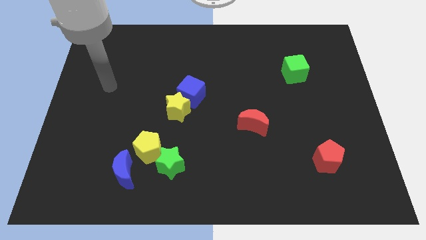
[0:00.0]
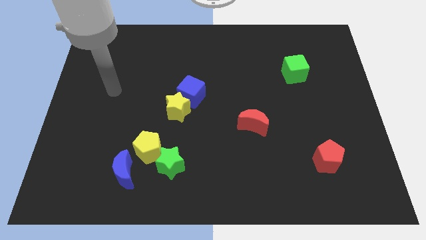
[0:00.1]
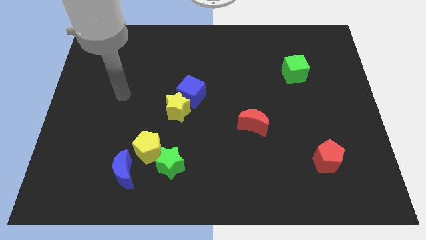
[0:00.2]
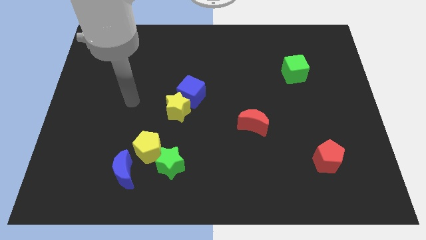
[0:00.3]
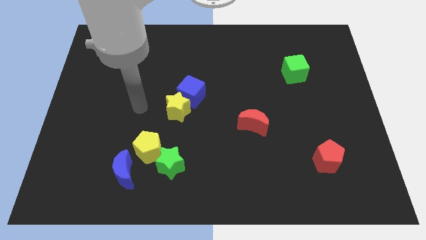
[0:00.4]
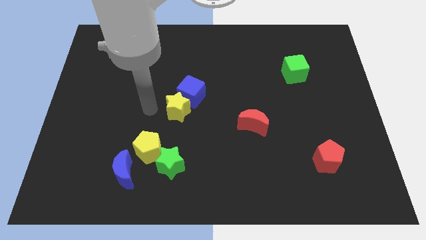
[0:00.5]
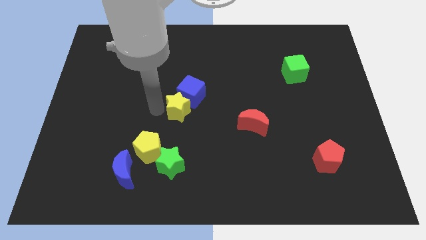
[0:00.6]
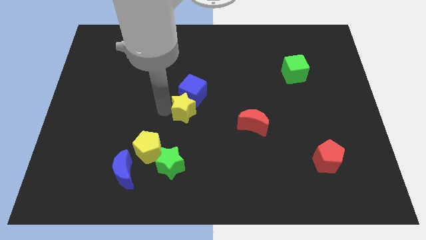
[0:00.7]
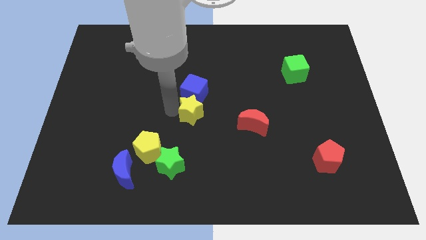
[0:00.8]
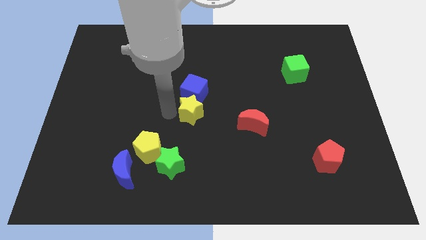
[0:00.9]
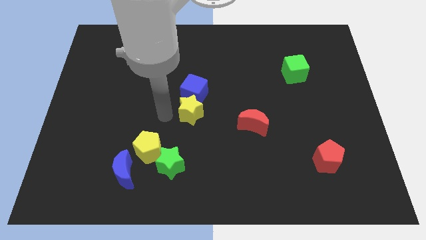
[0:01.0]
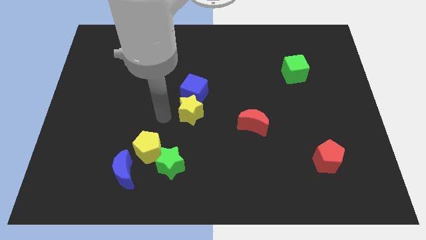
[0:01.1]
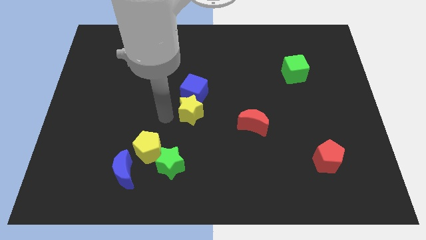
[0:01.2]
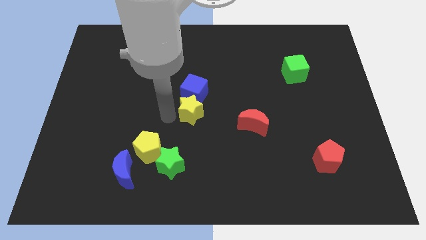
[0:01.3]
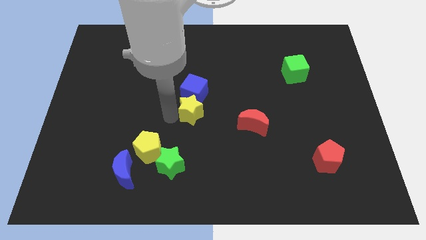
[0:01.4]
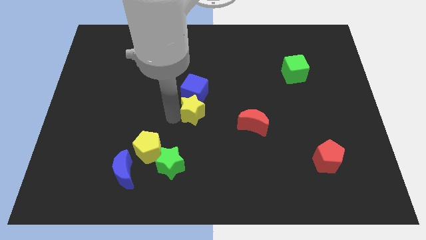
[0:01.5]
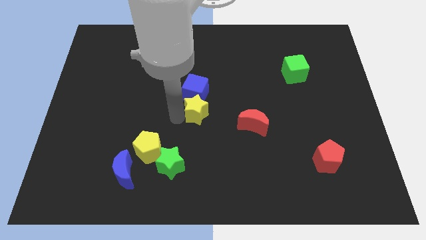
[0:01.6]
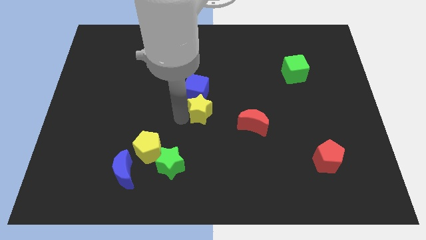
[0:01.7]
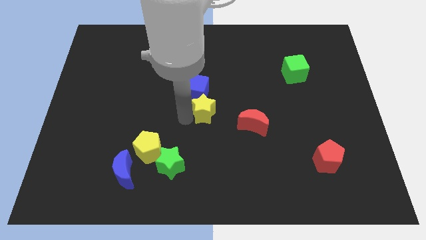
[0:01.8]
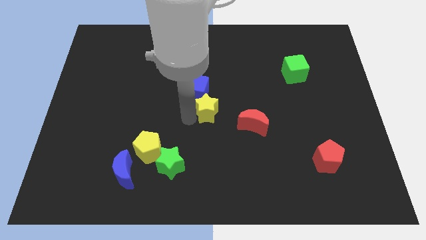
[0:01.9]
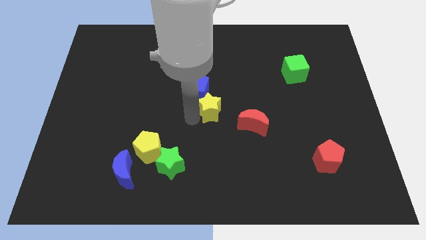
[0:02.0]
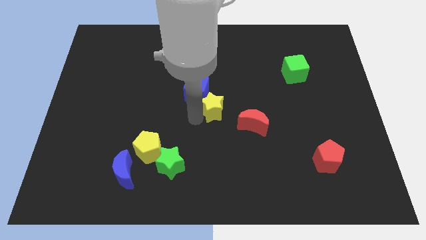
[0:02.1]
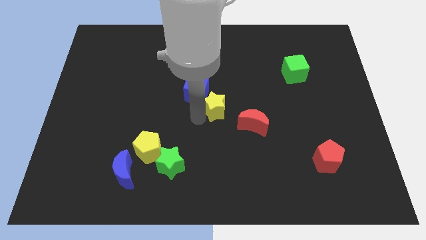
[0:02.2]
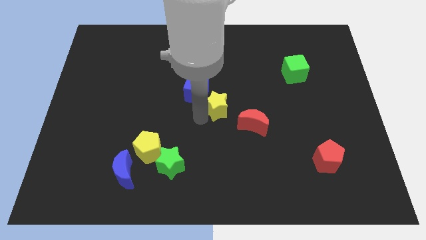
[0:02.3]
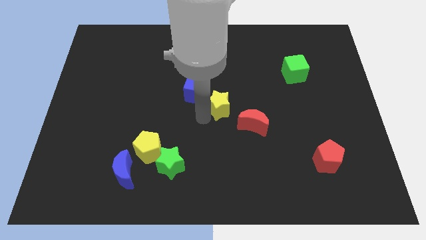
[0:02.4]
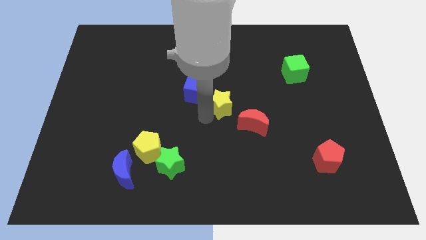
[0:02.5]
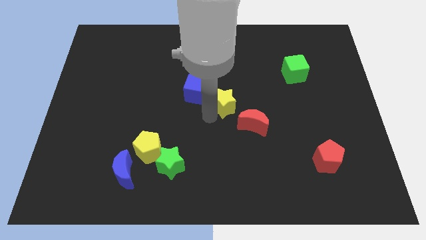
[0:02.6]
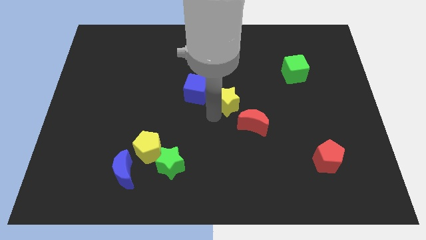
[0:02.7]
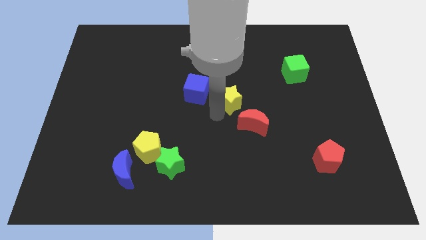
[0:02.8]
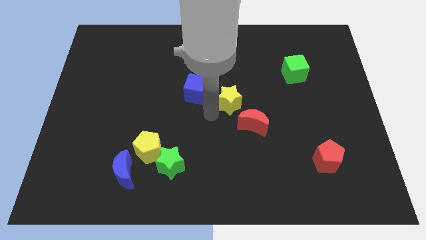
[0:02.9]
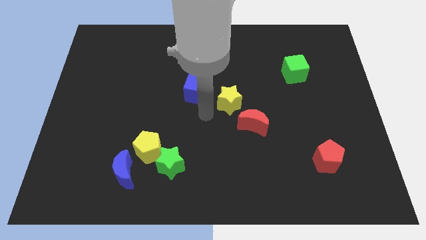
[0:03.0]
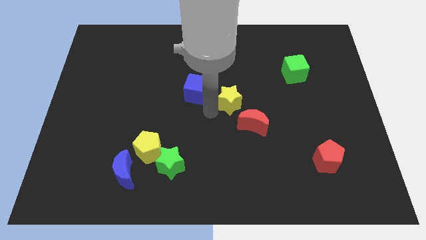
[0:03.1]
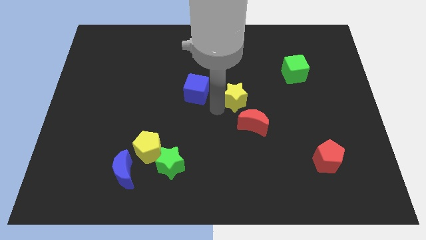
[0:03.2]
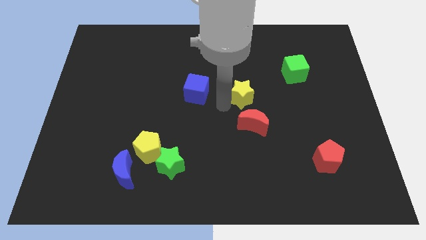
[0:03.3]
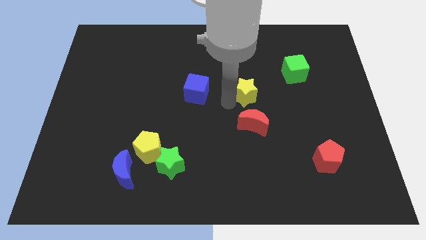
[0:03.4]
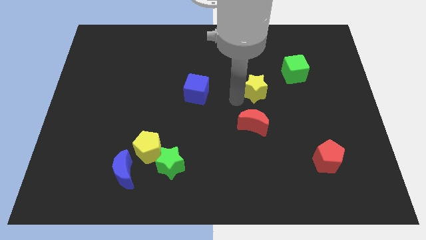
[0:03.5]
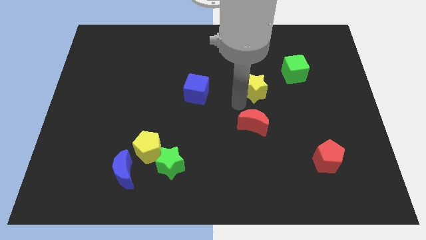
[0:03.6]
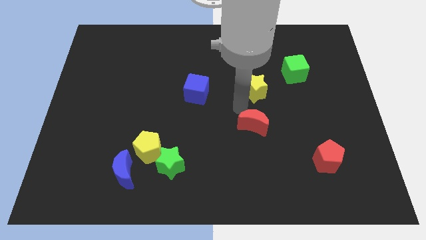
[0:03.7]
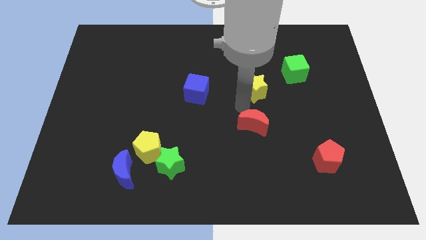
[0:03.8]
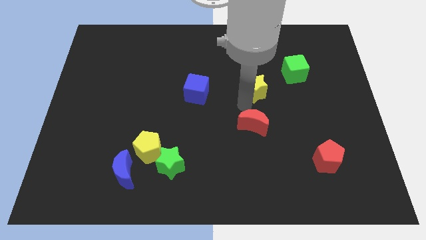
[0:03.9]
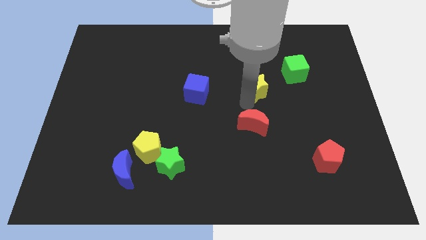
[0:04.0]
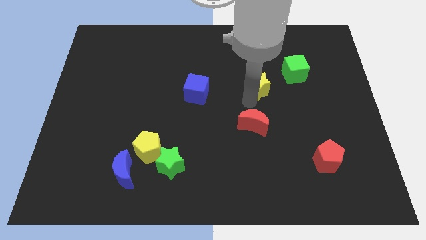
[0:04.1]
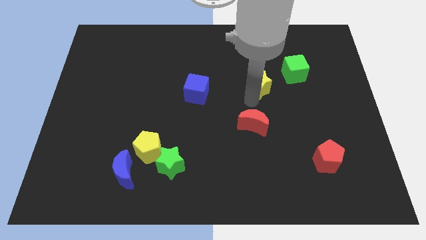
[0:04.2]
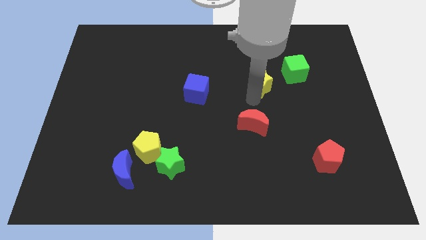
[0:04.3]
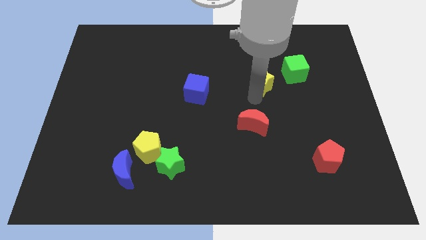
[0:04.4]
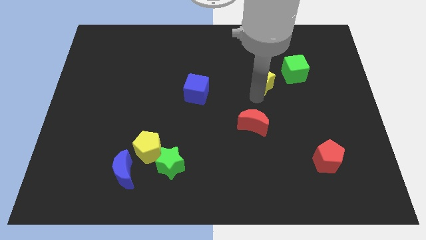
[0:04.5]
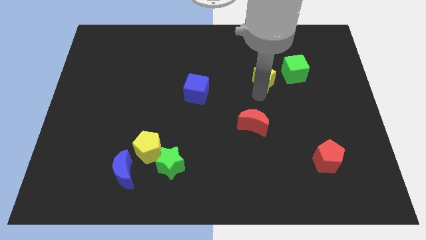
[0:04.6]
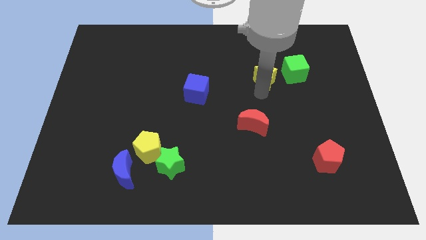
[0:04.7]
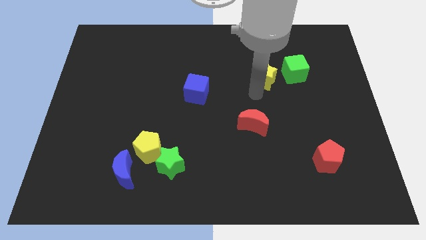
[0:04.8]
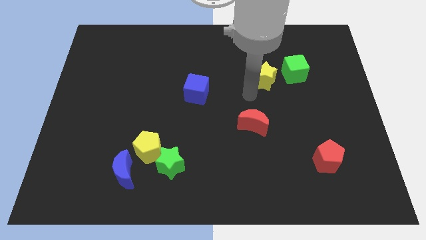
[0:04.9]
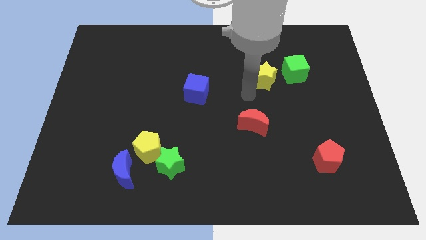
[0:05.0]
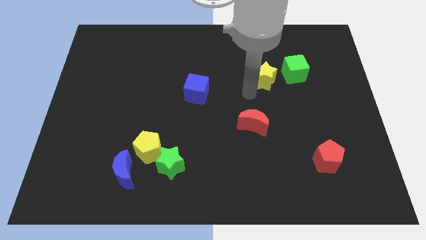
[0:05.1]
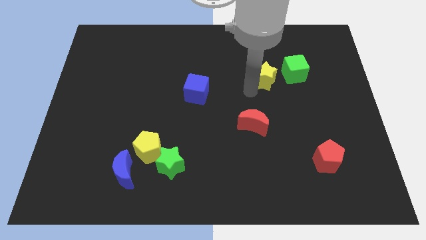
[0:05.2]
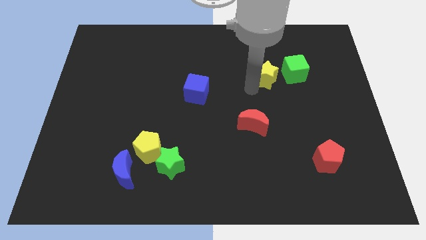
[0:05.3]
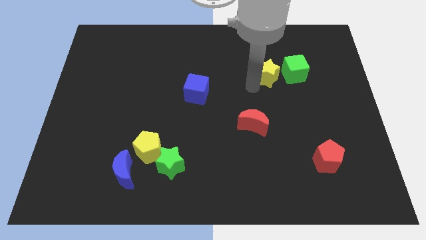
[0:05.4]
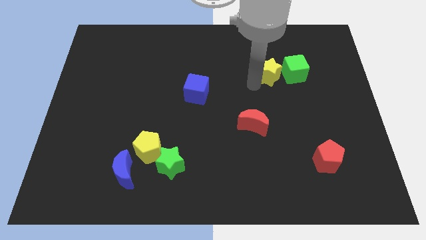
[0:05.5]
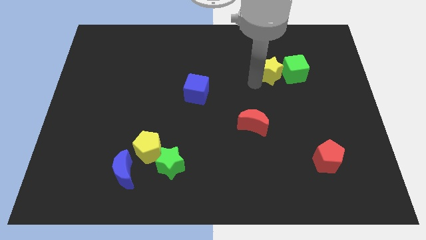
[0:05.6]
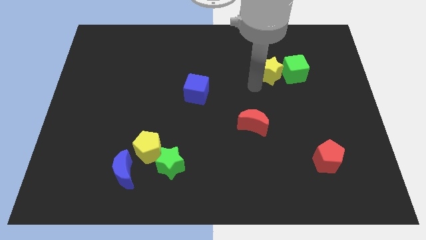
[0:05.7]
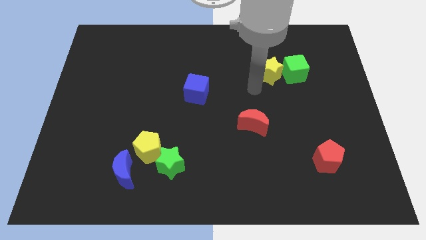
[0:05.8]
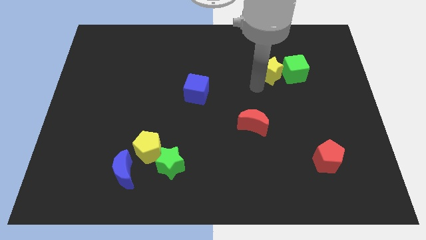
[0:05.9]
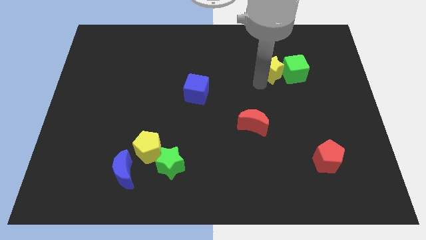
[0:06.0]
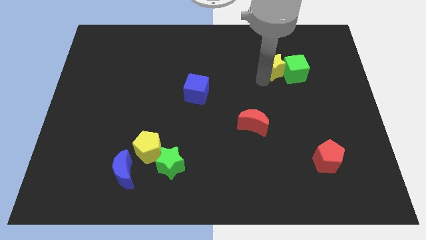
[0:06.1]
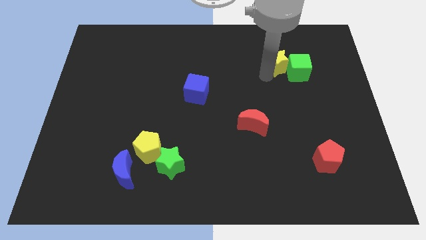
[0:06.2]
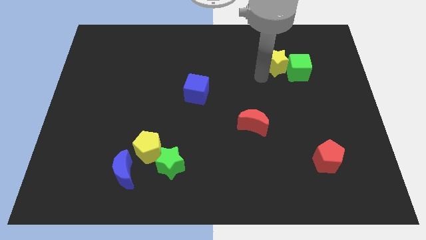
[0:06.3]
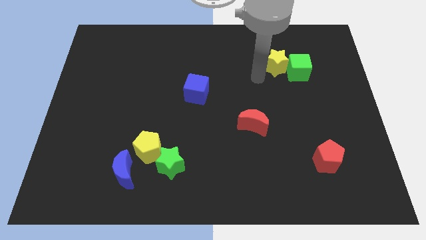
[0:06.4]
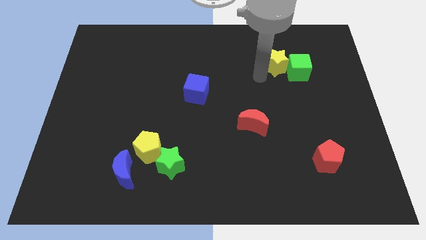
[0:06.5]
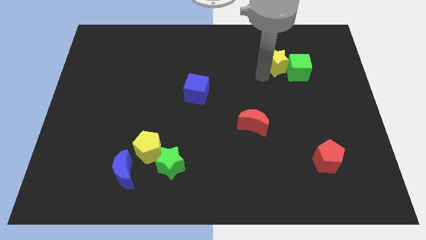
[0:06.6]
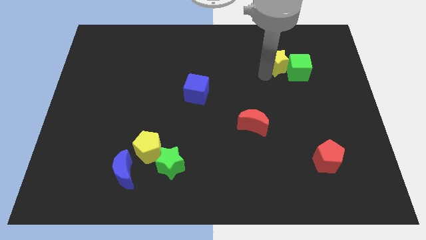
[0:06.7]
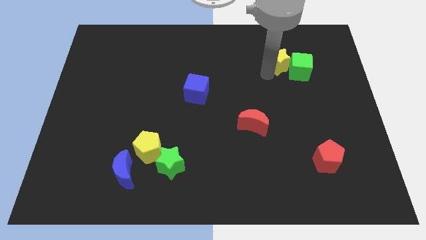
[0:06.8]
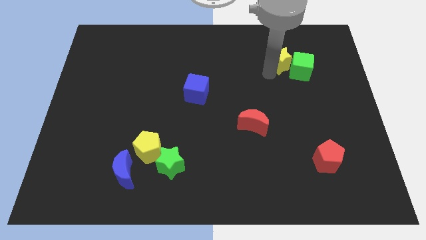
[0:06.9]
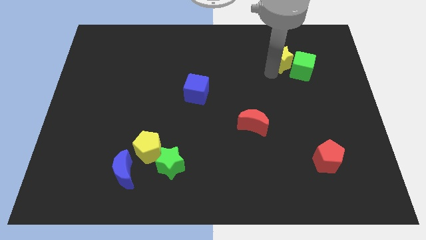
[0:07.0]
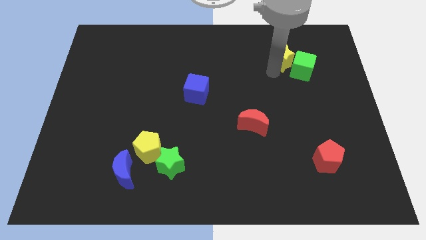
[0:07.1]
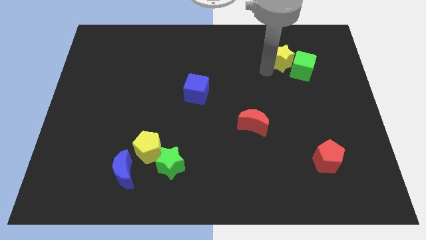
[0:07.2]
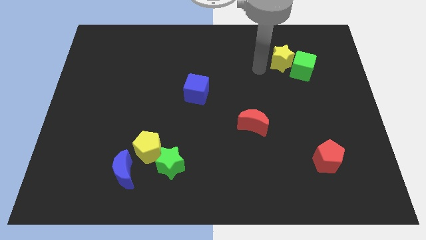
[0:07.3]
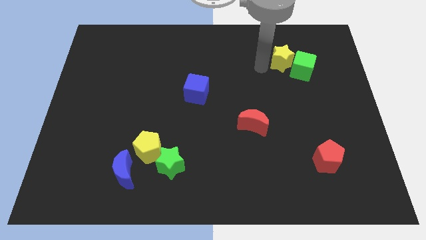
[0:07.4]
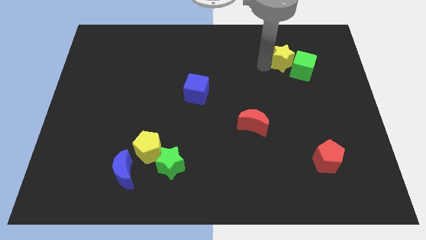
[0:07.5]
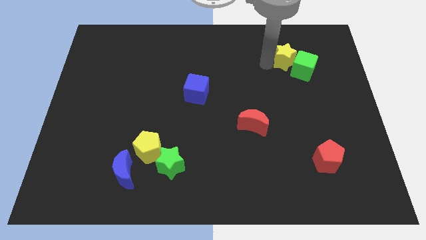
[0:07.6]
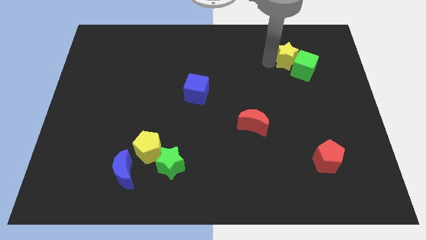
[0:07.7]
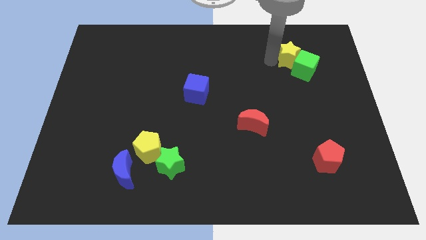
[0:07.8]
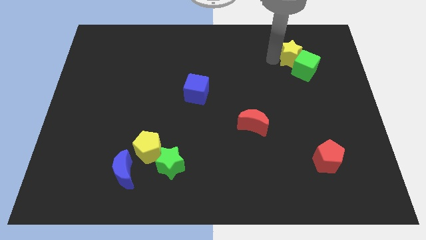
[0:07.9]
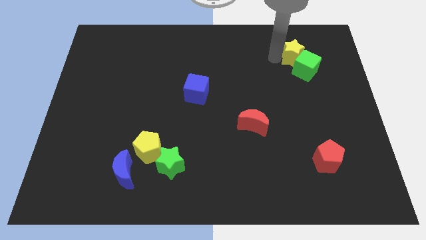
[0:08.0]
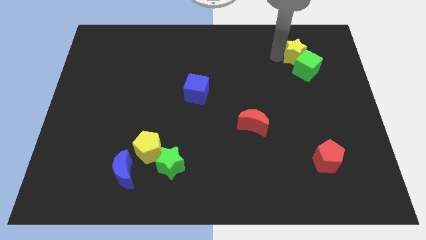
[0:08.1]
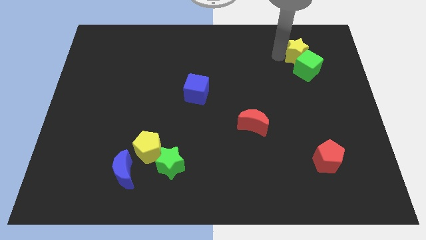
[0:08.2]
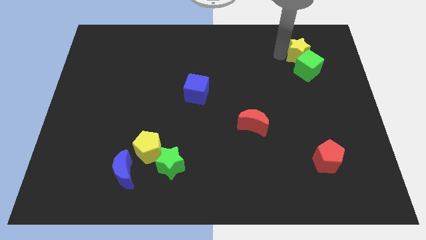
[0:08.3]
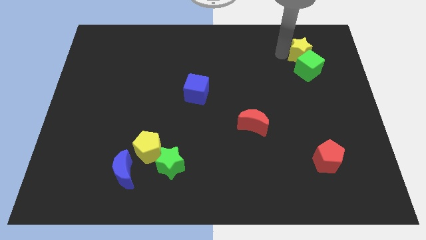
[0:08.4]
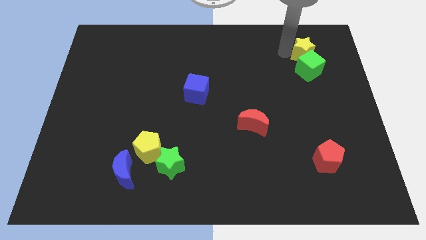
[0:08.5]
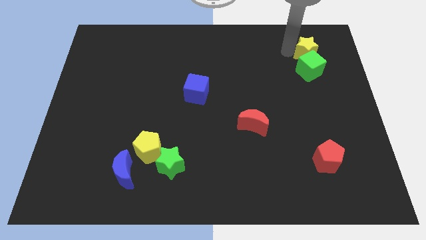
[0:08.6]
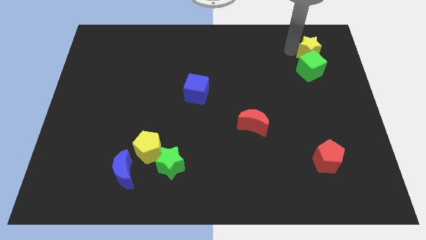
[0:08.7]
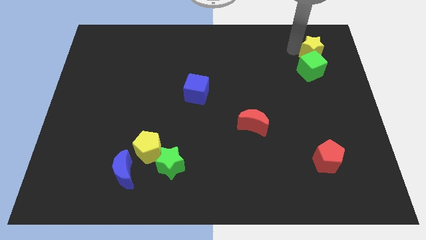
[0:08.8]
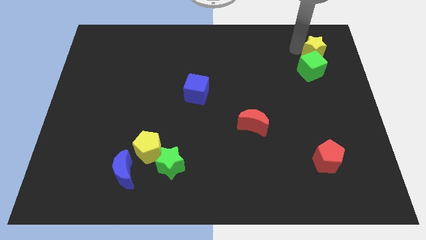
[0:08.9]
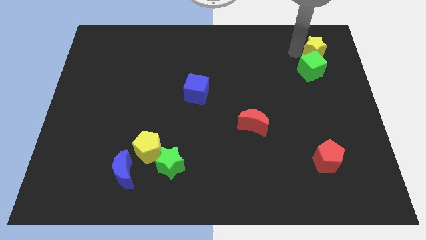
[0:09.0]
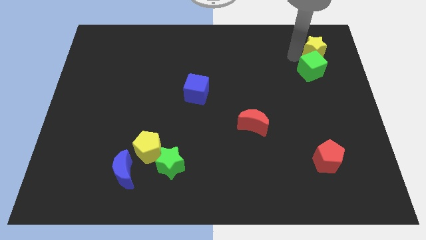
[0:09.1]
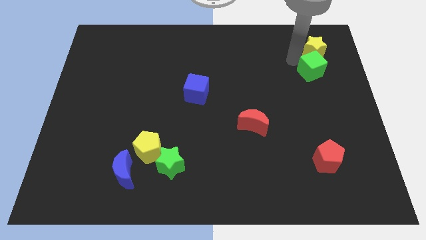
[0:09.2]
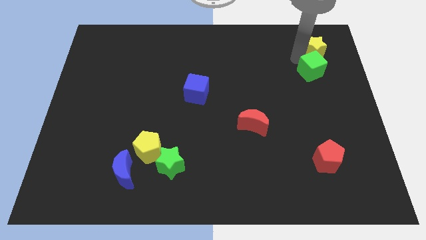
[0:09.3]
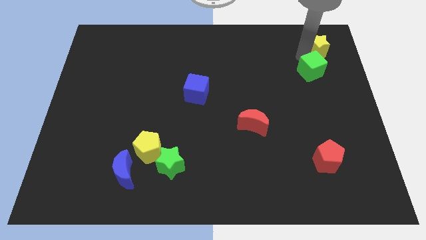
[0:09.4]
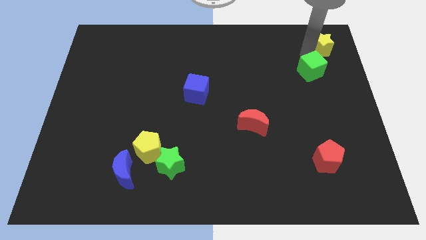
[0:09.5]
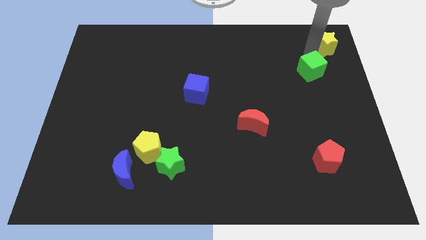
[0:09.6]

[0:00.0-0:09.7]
push the yellow star to the top right
